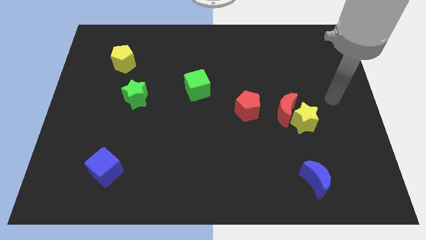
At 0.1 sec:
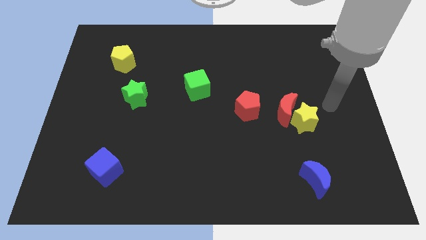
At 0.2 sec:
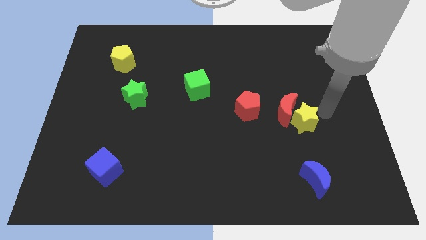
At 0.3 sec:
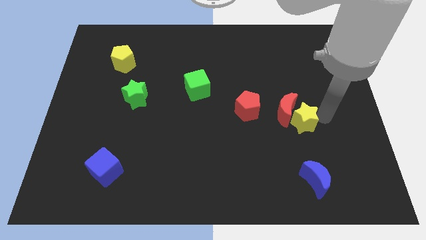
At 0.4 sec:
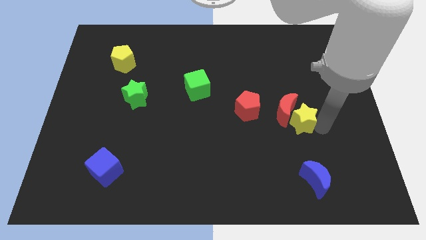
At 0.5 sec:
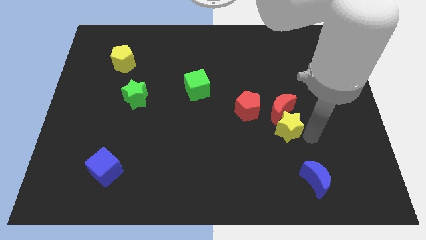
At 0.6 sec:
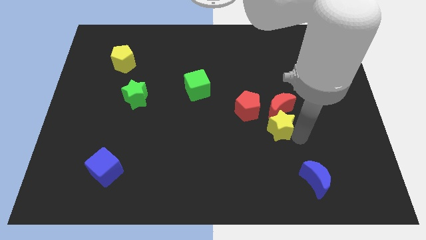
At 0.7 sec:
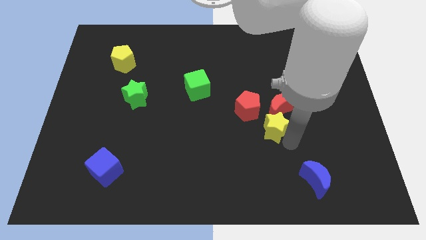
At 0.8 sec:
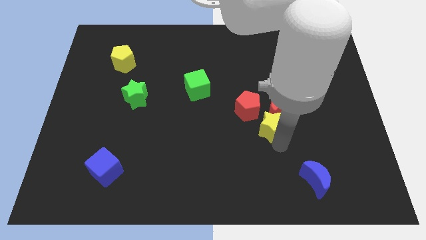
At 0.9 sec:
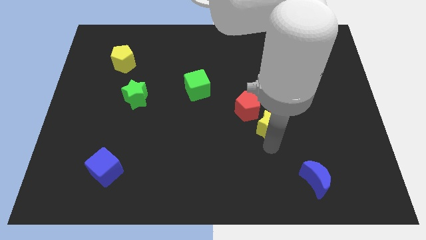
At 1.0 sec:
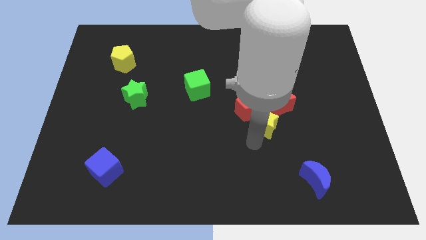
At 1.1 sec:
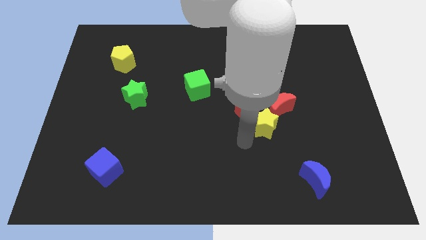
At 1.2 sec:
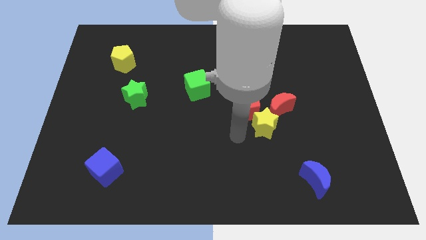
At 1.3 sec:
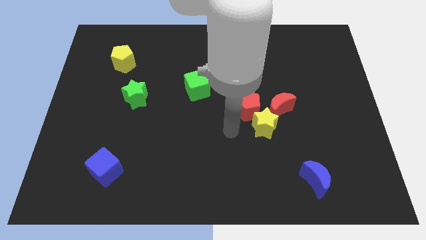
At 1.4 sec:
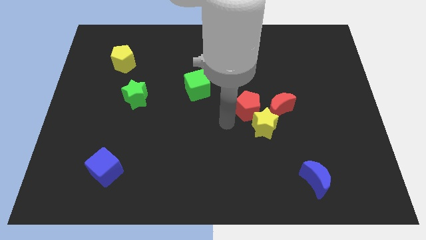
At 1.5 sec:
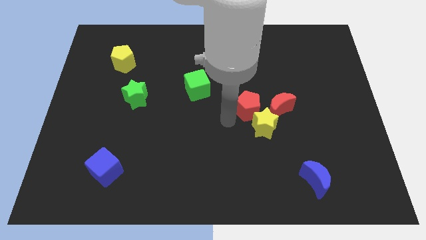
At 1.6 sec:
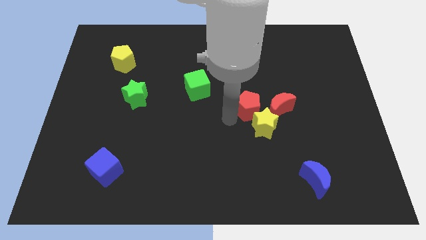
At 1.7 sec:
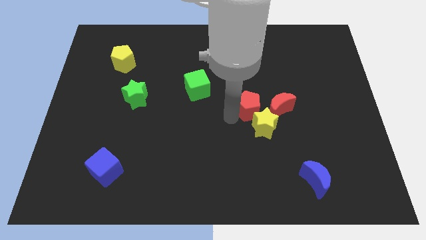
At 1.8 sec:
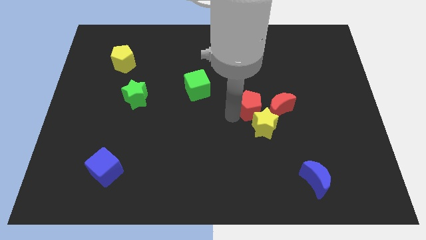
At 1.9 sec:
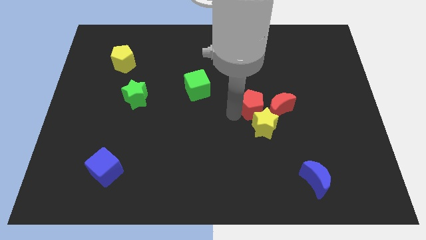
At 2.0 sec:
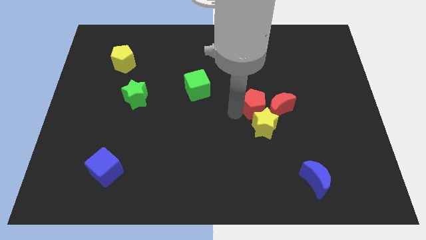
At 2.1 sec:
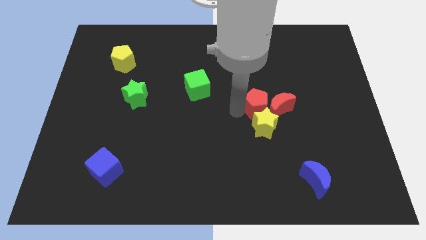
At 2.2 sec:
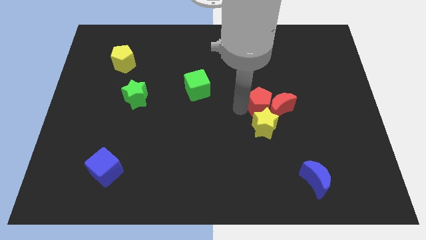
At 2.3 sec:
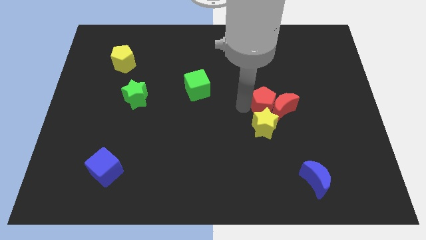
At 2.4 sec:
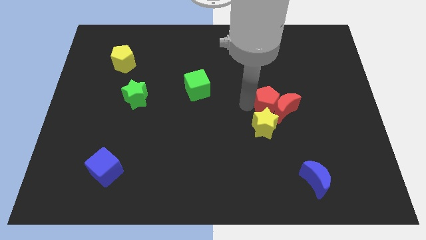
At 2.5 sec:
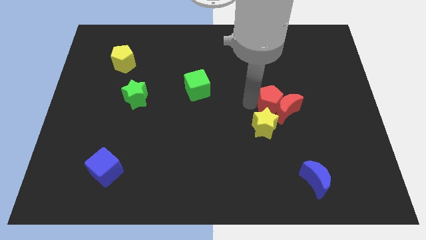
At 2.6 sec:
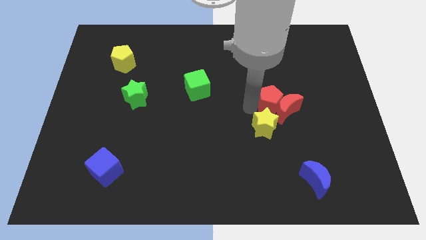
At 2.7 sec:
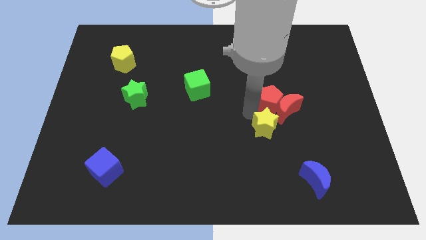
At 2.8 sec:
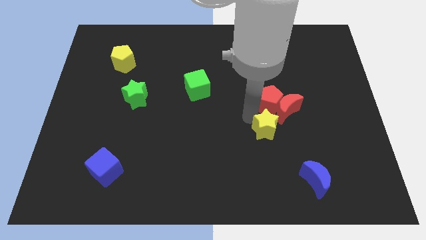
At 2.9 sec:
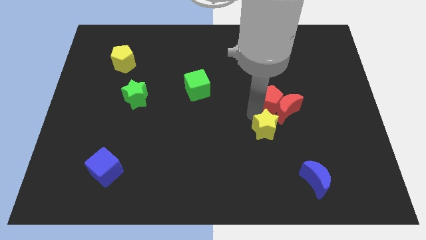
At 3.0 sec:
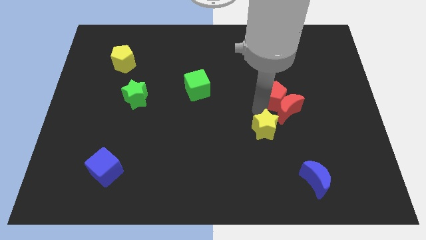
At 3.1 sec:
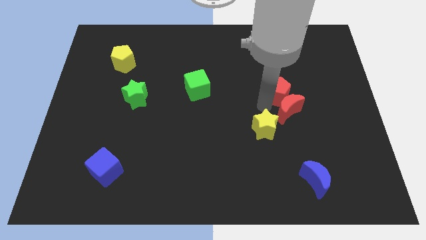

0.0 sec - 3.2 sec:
move the red pentagon a little to the right

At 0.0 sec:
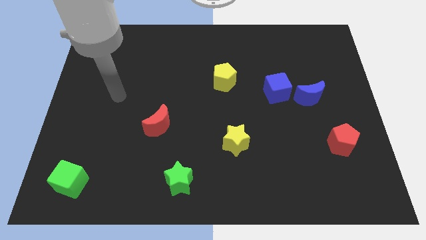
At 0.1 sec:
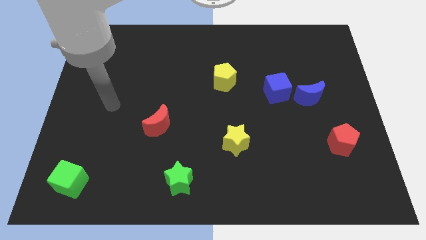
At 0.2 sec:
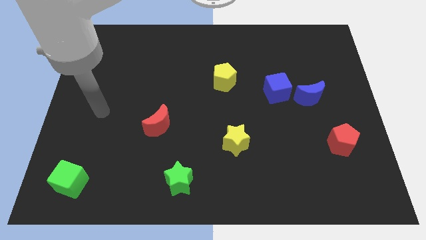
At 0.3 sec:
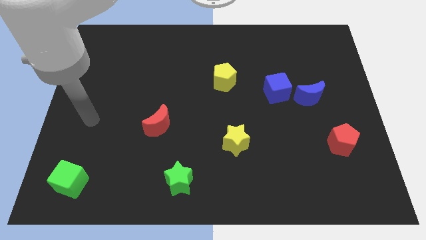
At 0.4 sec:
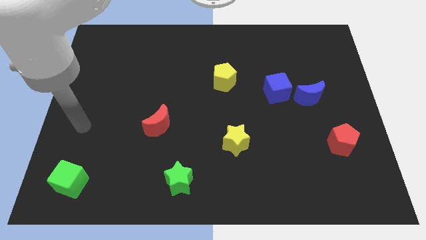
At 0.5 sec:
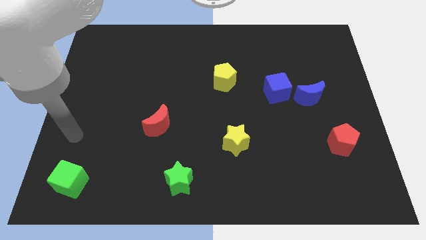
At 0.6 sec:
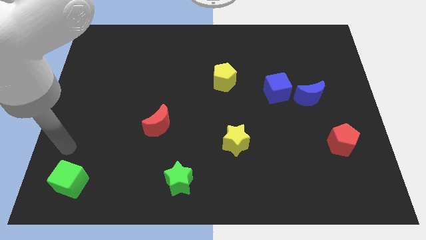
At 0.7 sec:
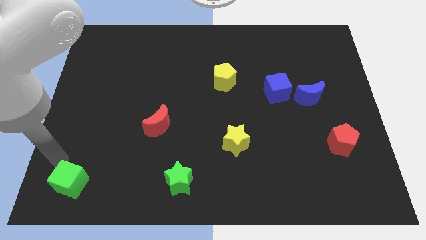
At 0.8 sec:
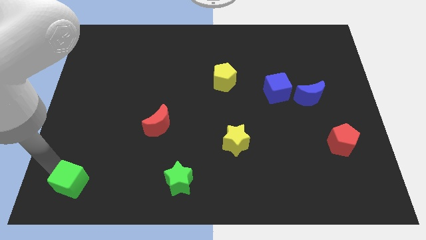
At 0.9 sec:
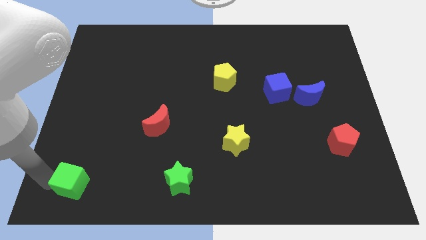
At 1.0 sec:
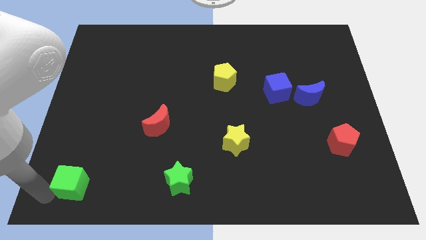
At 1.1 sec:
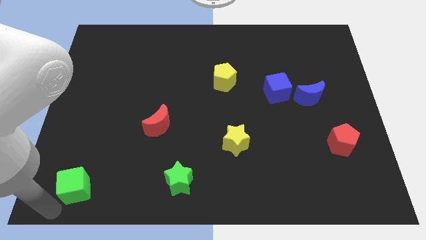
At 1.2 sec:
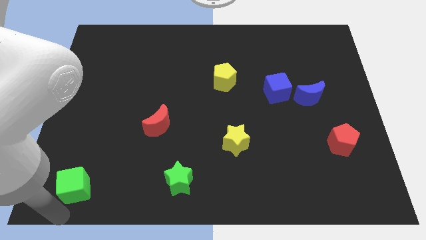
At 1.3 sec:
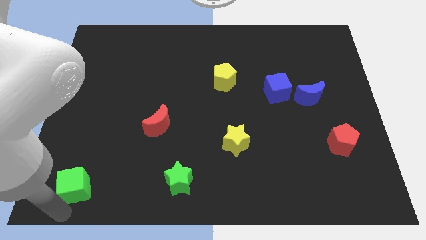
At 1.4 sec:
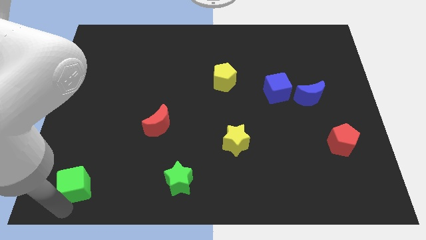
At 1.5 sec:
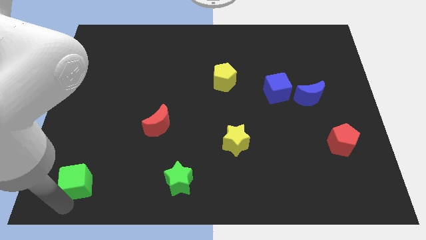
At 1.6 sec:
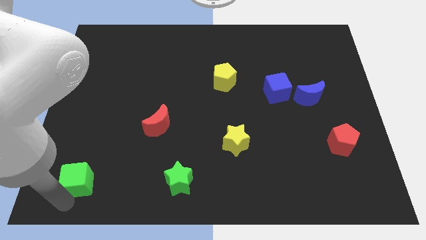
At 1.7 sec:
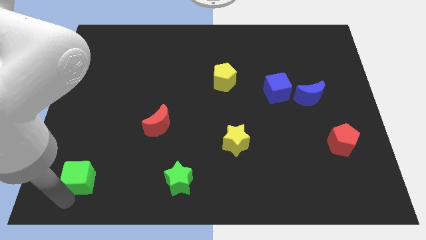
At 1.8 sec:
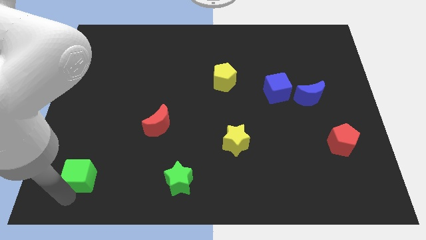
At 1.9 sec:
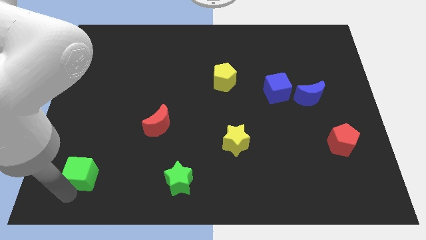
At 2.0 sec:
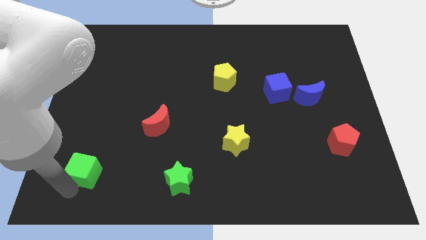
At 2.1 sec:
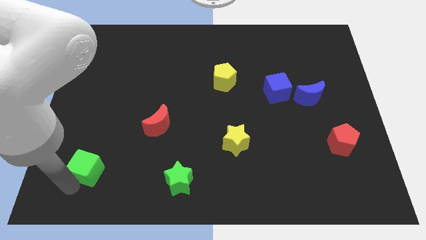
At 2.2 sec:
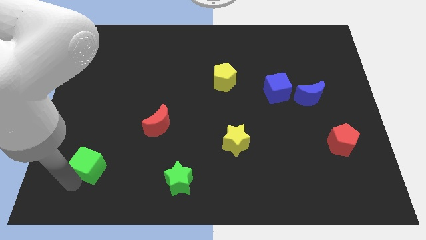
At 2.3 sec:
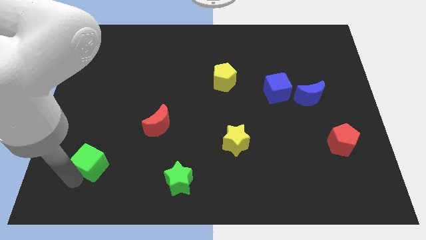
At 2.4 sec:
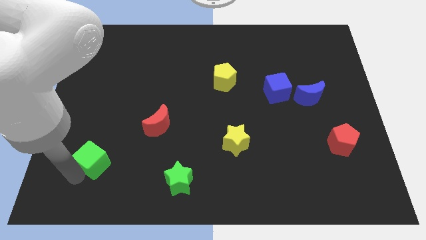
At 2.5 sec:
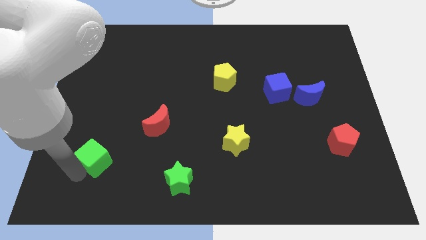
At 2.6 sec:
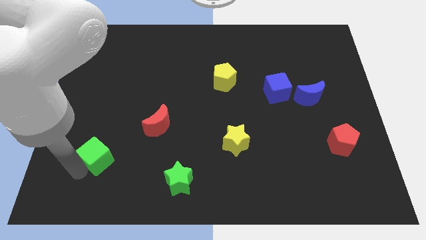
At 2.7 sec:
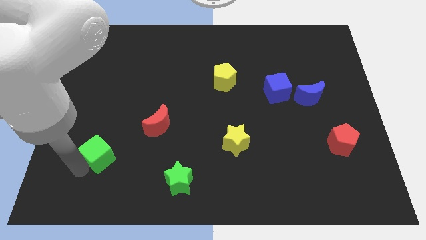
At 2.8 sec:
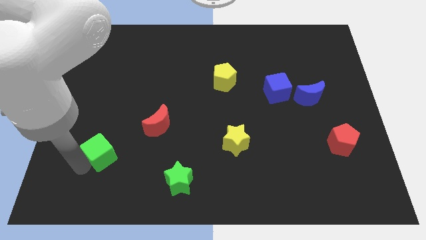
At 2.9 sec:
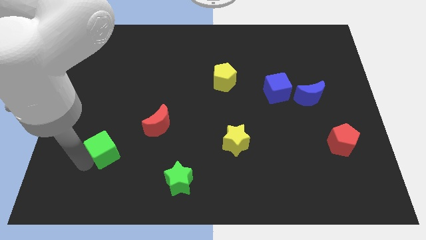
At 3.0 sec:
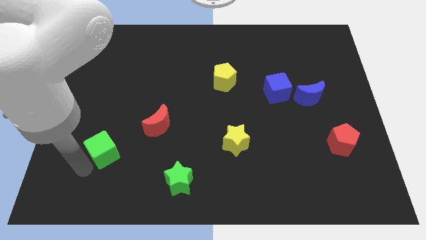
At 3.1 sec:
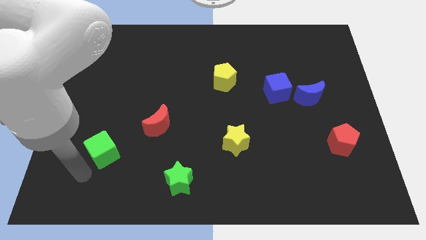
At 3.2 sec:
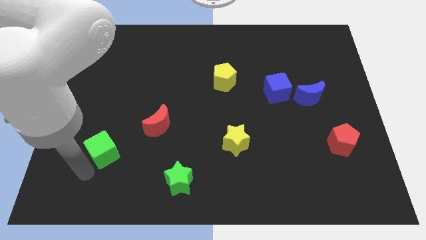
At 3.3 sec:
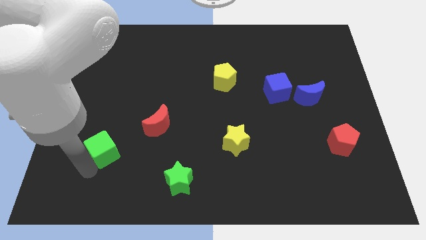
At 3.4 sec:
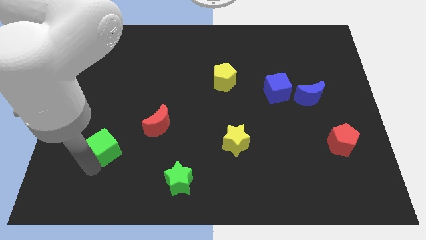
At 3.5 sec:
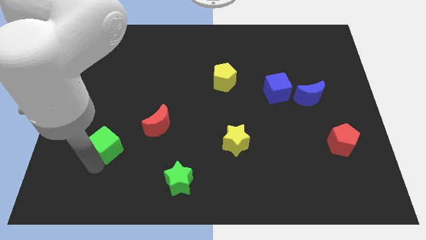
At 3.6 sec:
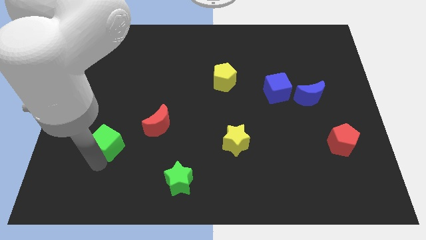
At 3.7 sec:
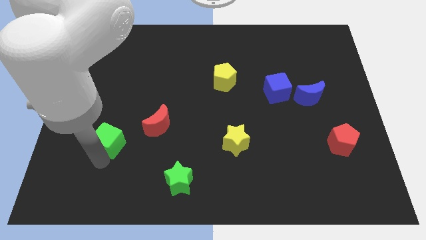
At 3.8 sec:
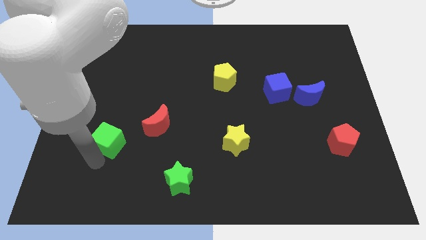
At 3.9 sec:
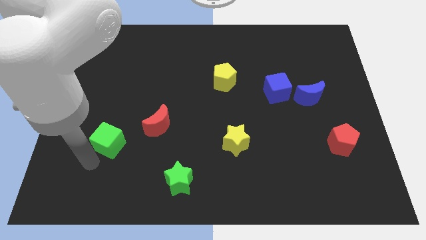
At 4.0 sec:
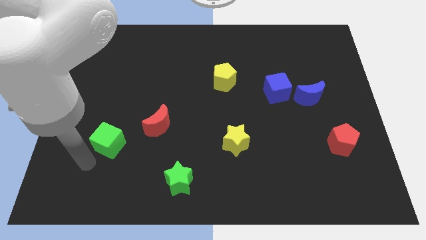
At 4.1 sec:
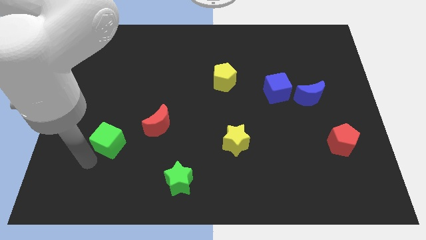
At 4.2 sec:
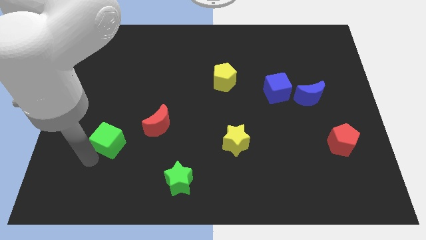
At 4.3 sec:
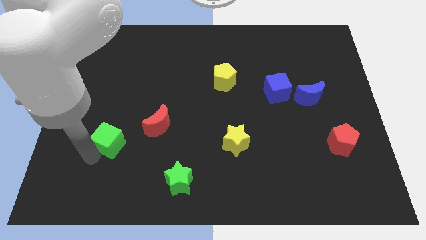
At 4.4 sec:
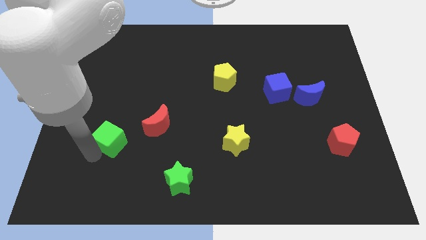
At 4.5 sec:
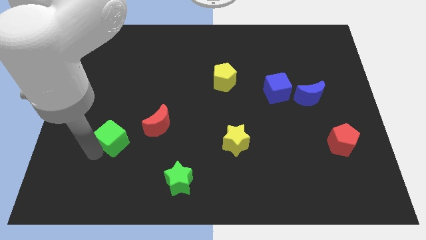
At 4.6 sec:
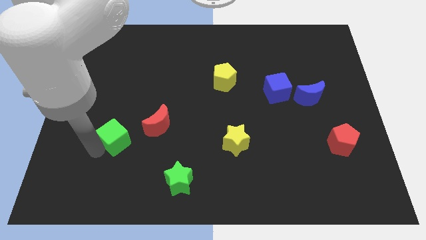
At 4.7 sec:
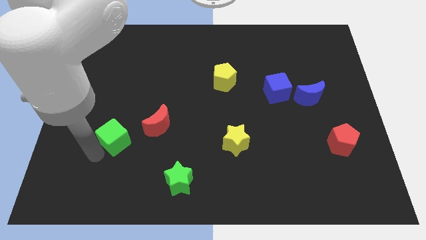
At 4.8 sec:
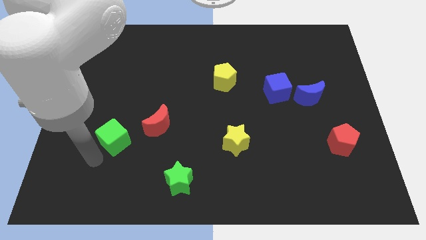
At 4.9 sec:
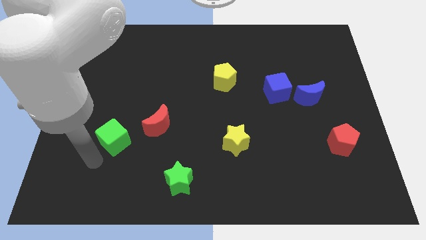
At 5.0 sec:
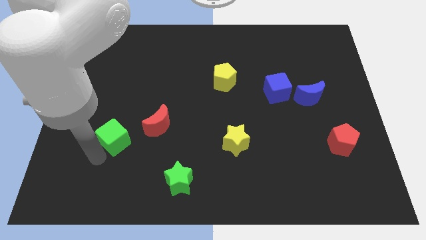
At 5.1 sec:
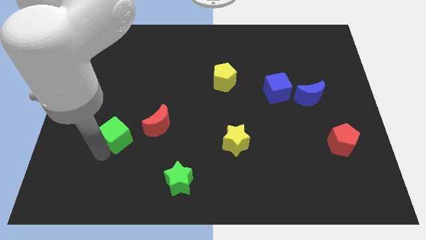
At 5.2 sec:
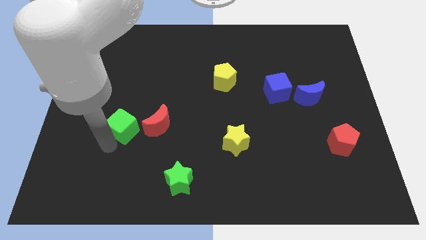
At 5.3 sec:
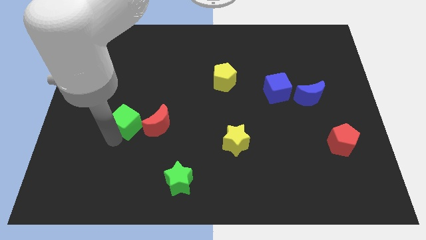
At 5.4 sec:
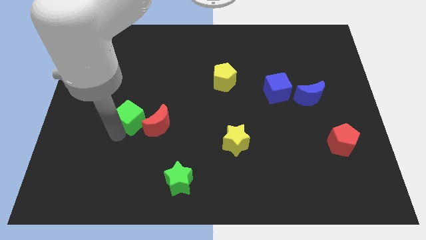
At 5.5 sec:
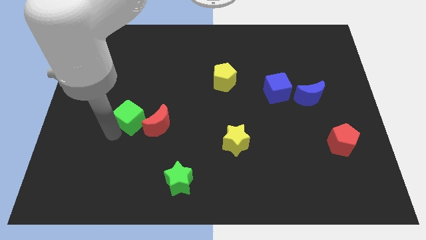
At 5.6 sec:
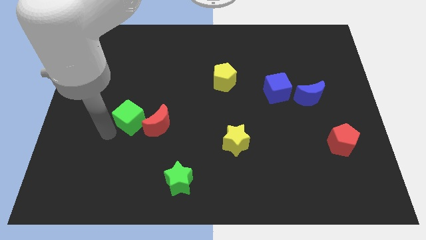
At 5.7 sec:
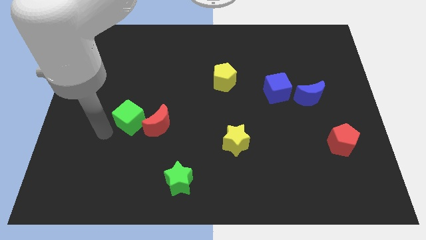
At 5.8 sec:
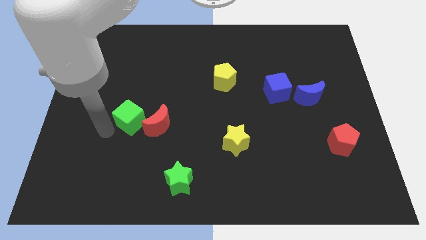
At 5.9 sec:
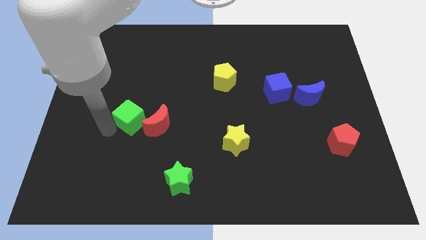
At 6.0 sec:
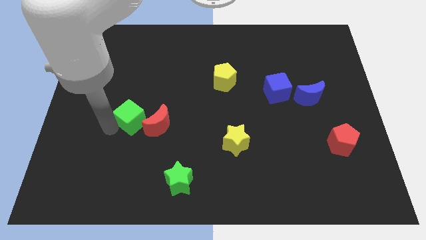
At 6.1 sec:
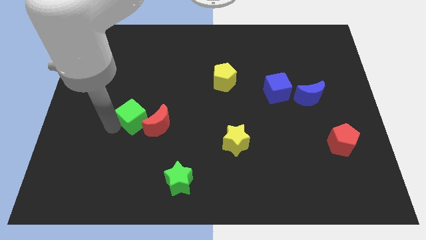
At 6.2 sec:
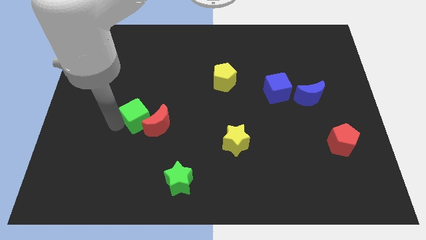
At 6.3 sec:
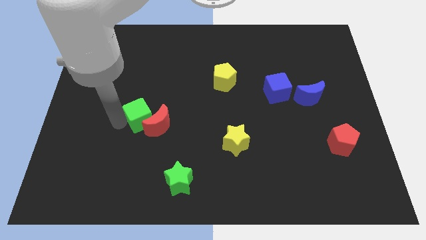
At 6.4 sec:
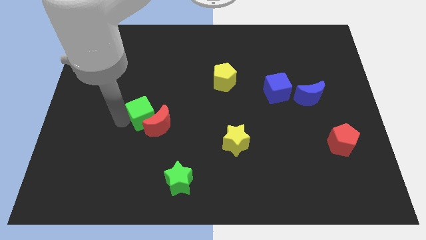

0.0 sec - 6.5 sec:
push the green cube up and right diagonally
